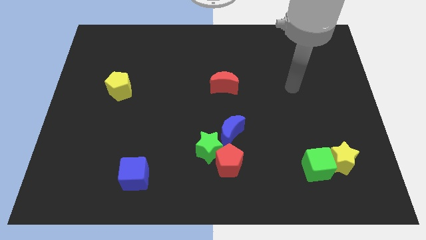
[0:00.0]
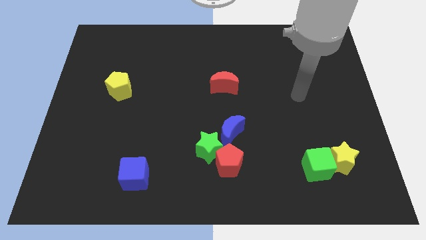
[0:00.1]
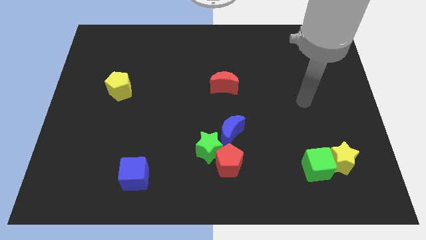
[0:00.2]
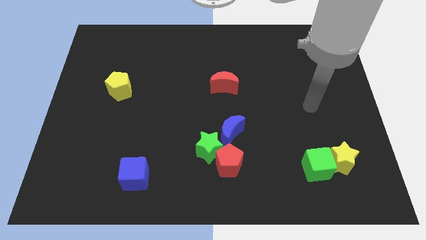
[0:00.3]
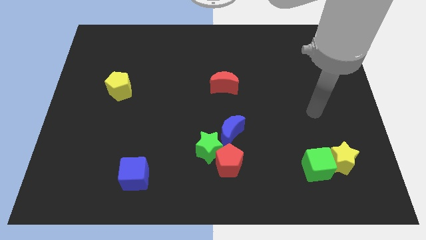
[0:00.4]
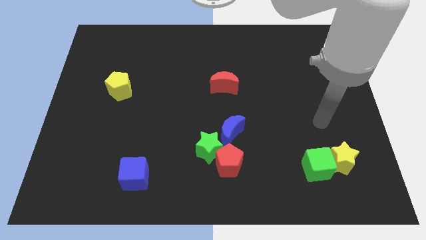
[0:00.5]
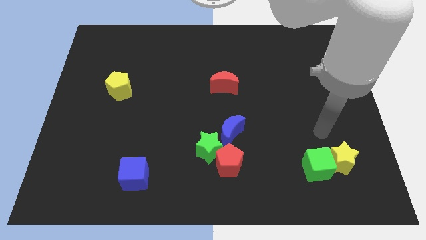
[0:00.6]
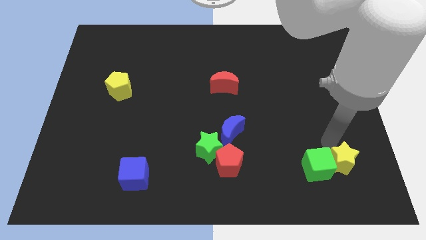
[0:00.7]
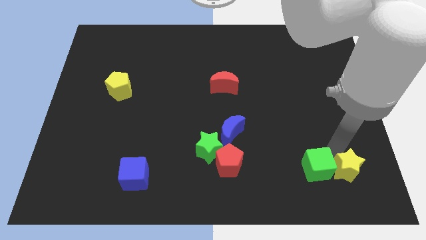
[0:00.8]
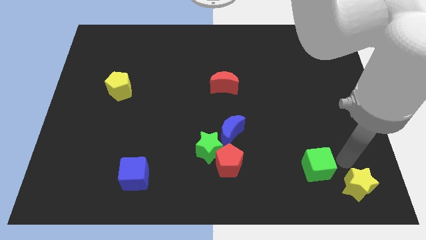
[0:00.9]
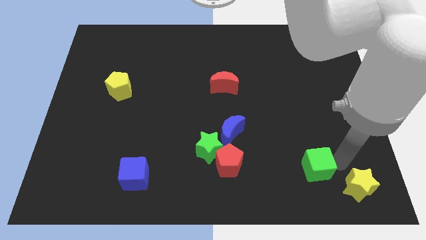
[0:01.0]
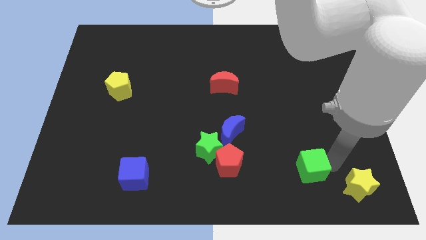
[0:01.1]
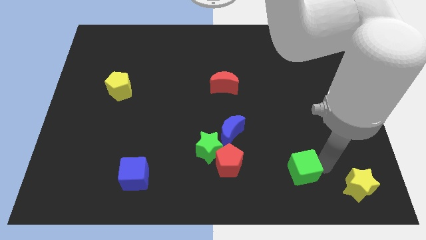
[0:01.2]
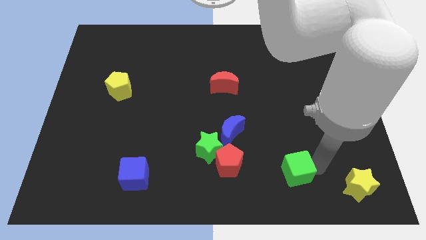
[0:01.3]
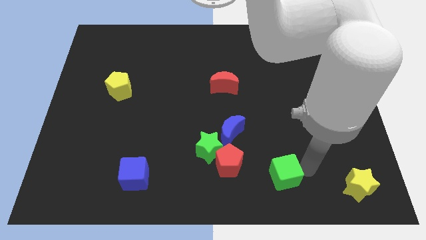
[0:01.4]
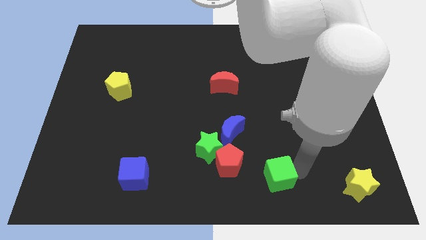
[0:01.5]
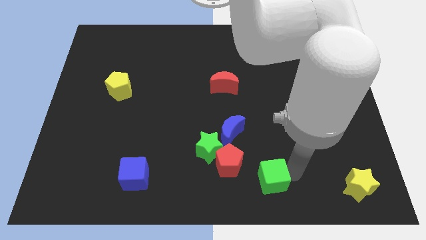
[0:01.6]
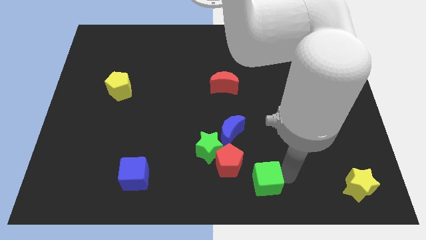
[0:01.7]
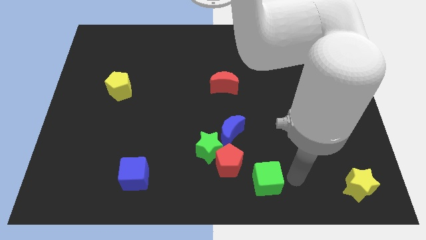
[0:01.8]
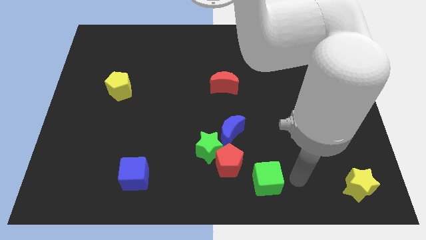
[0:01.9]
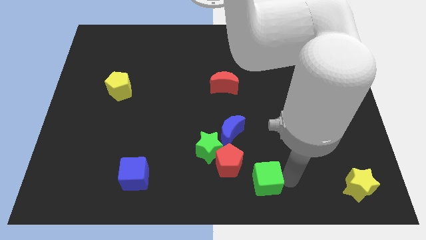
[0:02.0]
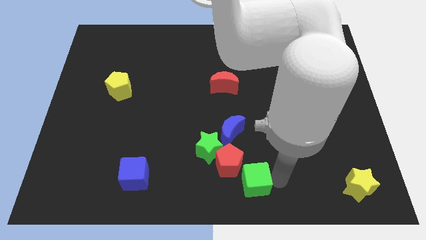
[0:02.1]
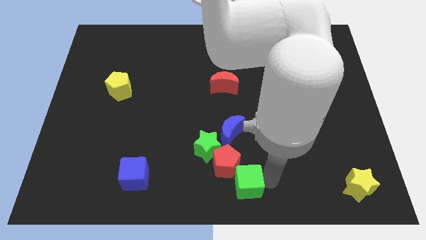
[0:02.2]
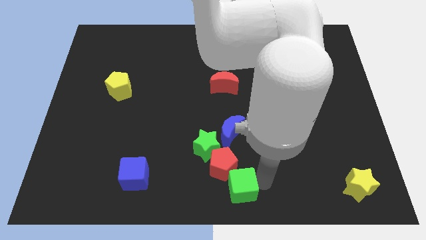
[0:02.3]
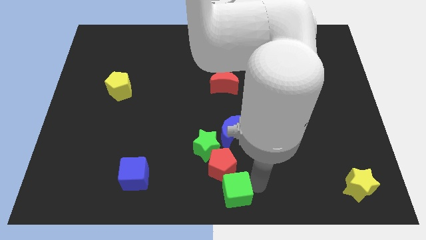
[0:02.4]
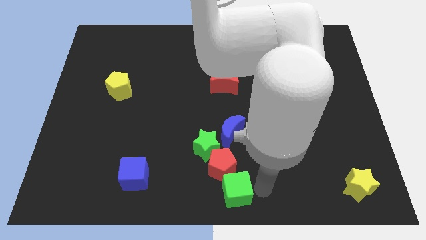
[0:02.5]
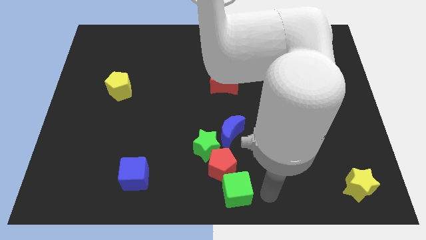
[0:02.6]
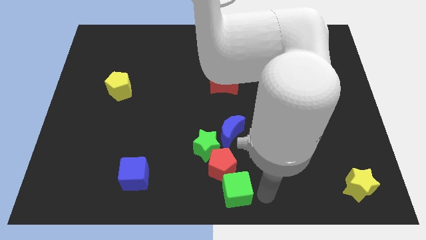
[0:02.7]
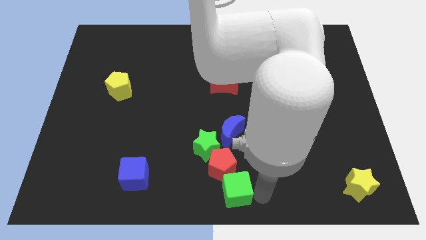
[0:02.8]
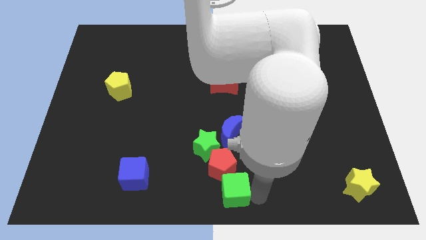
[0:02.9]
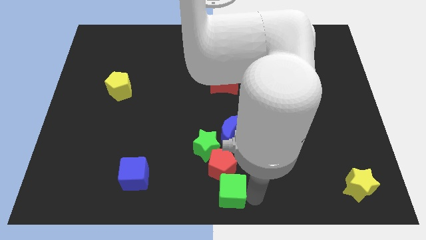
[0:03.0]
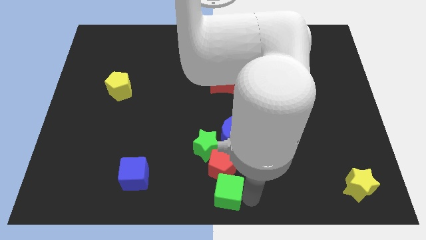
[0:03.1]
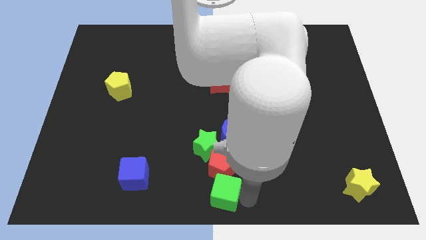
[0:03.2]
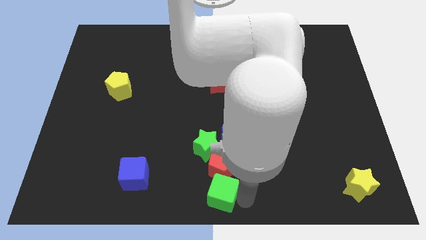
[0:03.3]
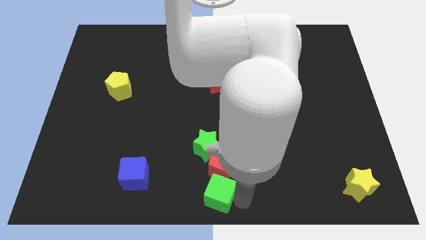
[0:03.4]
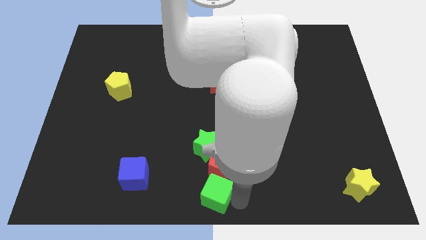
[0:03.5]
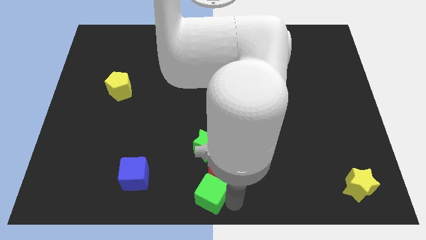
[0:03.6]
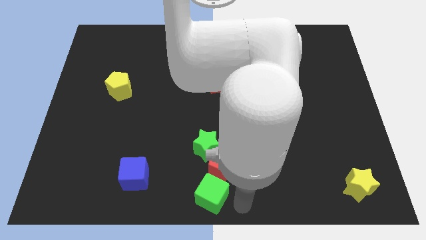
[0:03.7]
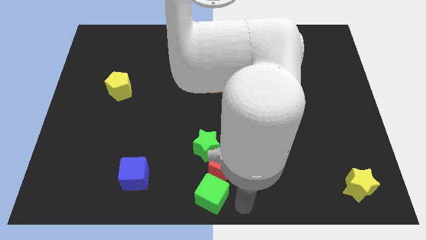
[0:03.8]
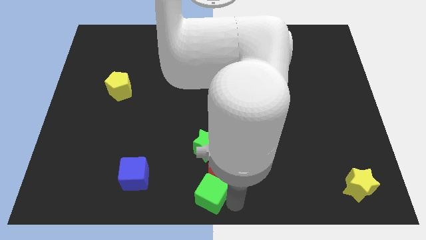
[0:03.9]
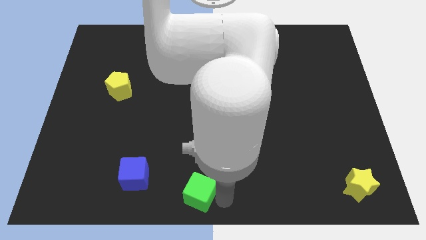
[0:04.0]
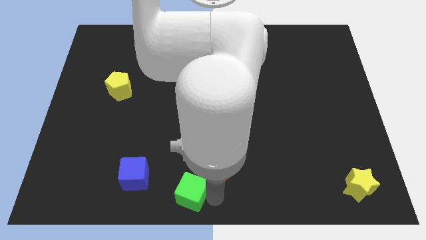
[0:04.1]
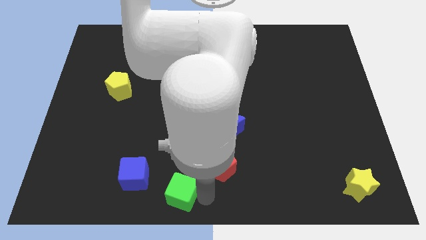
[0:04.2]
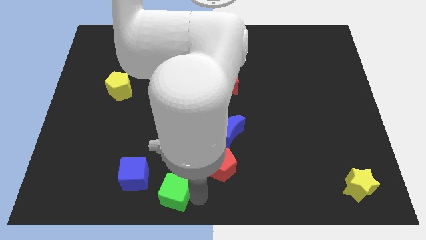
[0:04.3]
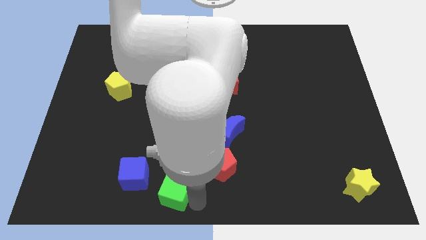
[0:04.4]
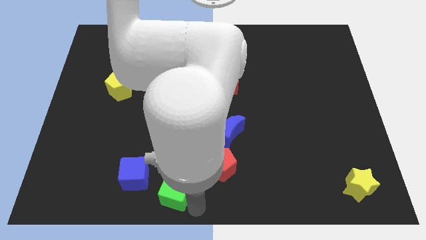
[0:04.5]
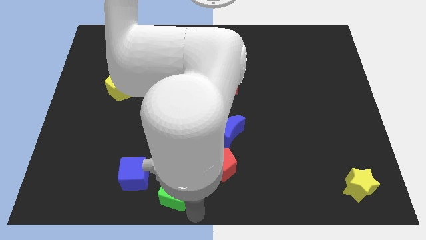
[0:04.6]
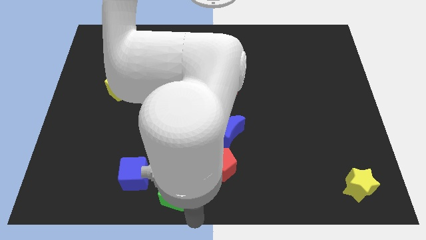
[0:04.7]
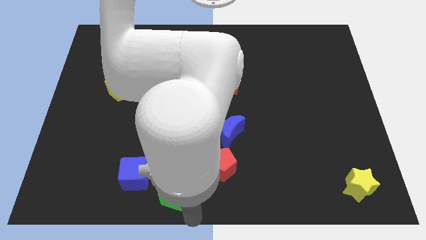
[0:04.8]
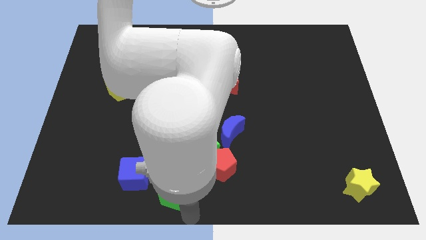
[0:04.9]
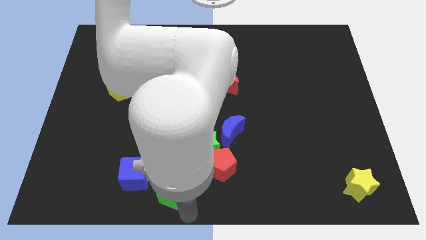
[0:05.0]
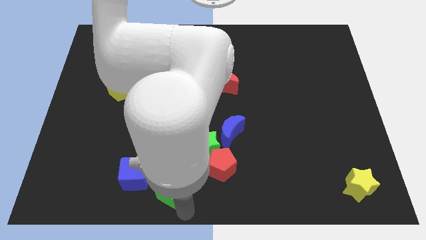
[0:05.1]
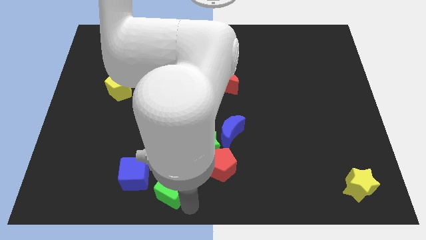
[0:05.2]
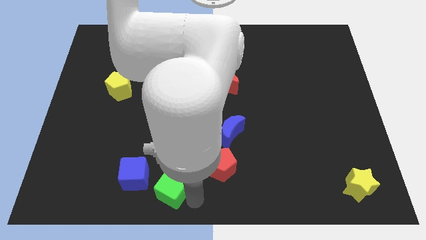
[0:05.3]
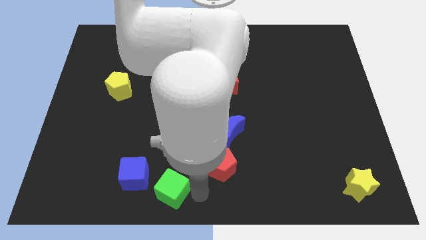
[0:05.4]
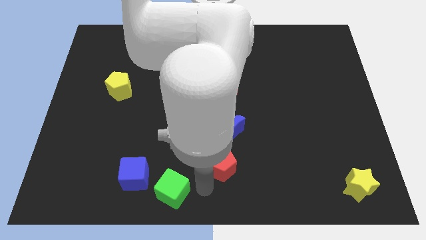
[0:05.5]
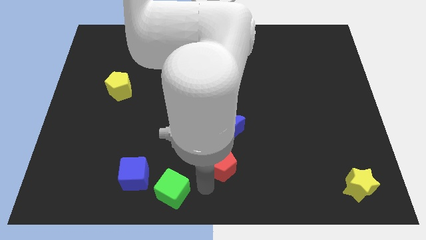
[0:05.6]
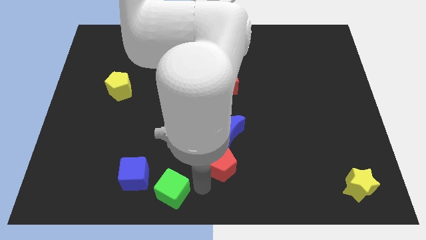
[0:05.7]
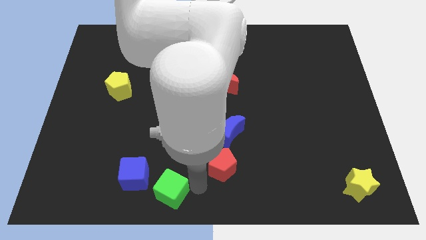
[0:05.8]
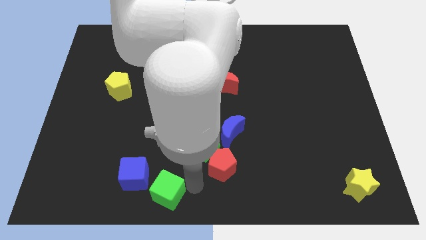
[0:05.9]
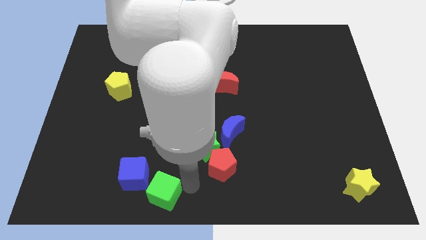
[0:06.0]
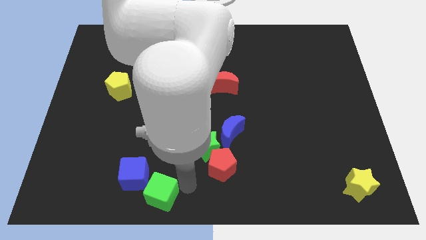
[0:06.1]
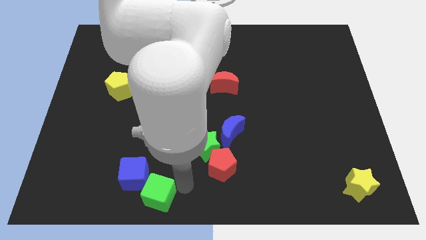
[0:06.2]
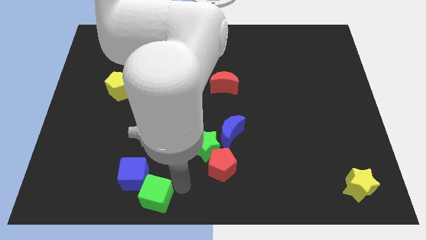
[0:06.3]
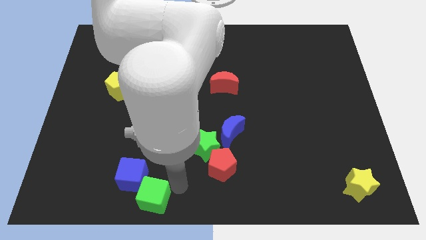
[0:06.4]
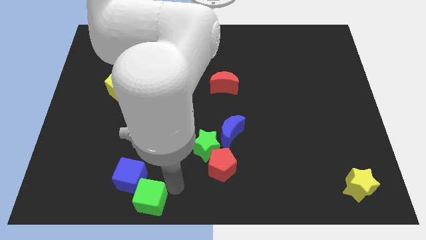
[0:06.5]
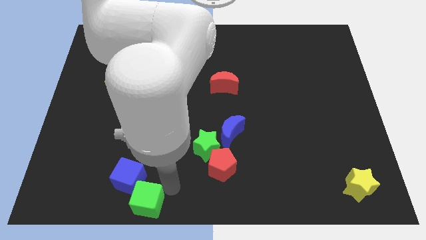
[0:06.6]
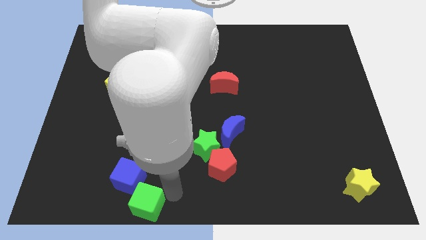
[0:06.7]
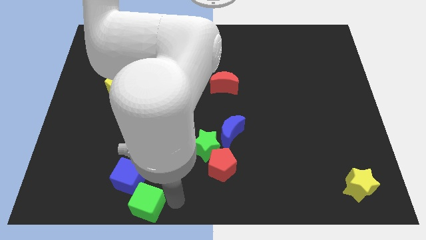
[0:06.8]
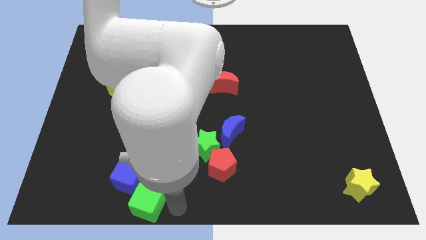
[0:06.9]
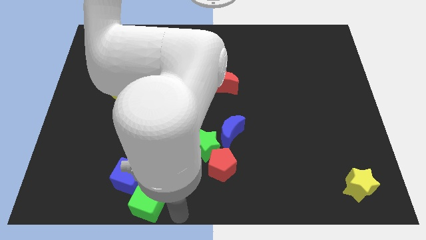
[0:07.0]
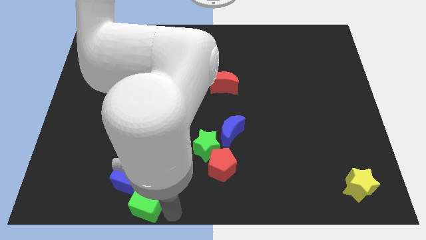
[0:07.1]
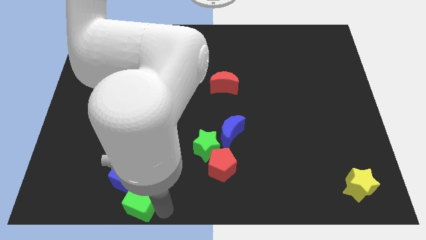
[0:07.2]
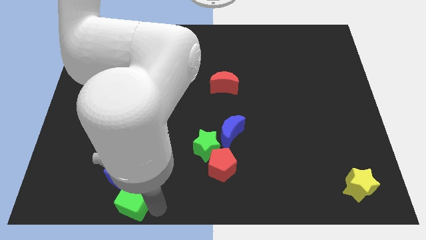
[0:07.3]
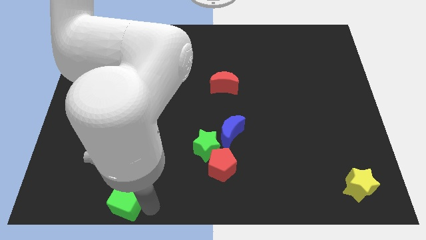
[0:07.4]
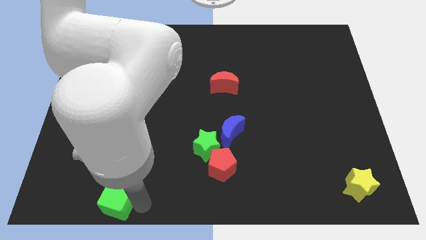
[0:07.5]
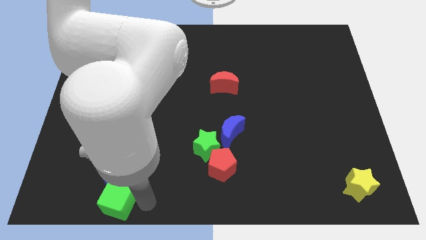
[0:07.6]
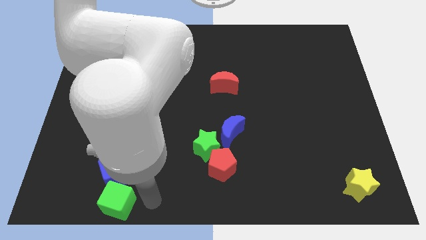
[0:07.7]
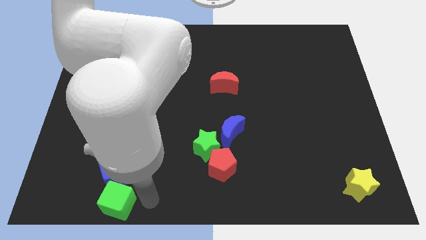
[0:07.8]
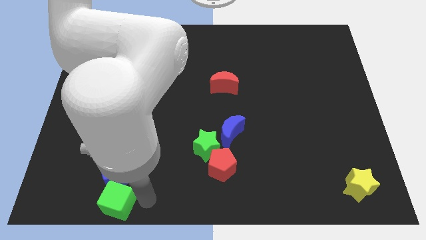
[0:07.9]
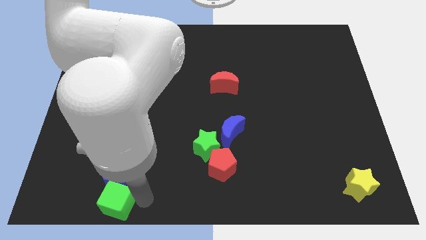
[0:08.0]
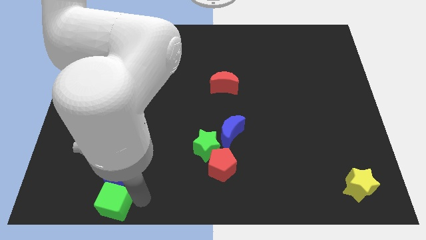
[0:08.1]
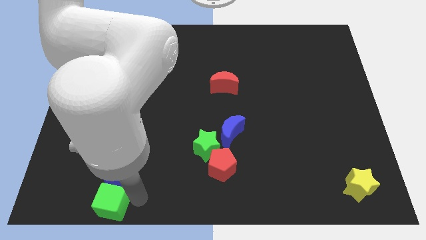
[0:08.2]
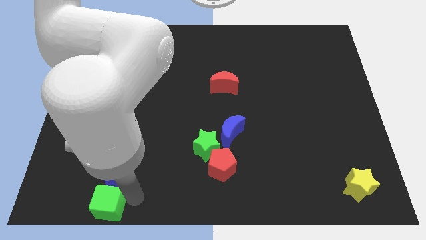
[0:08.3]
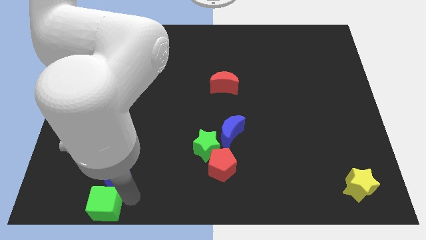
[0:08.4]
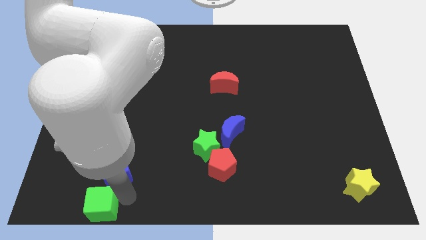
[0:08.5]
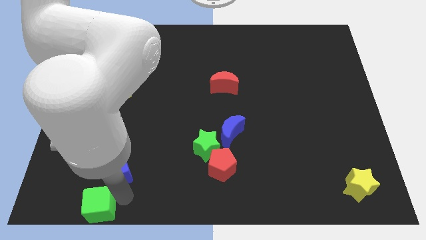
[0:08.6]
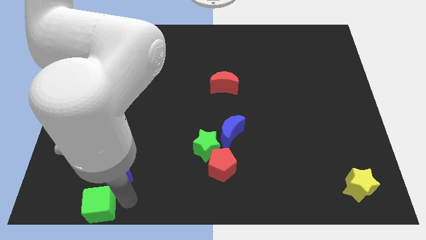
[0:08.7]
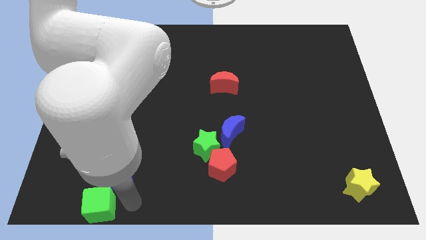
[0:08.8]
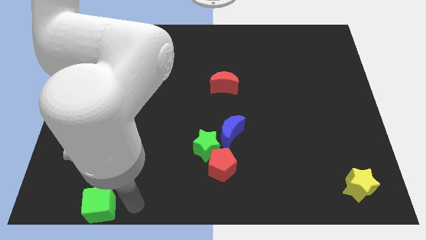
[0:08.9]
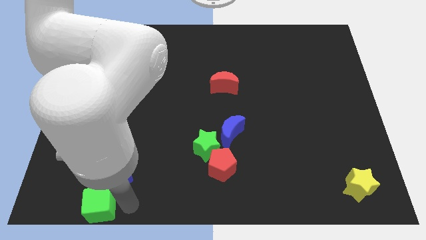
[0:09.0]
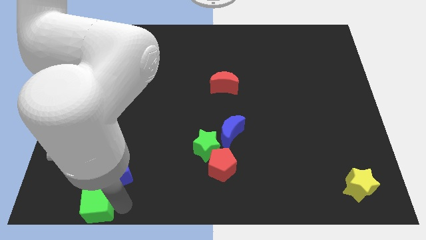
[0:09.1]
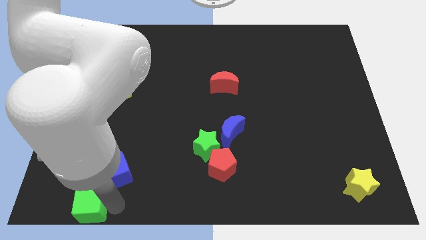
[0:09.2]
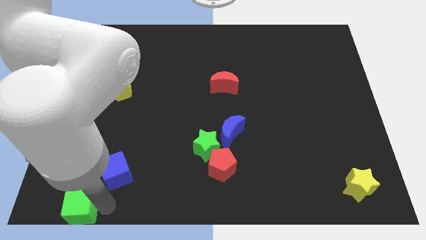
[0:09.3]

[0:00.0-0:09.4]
push the green cube to the lower left corner
